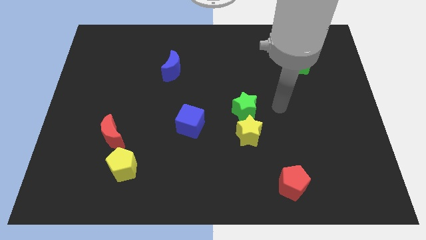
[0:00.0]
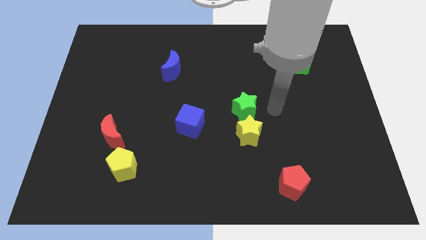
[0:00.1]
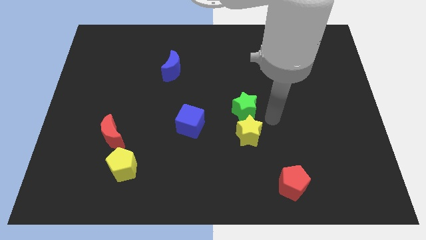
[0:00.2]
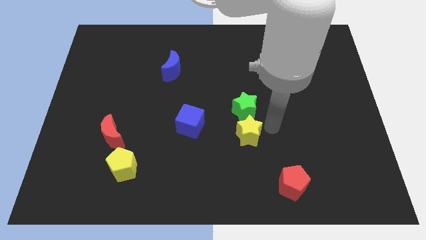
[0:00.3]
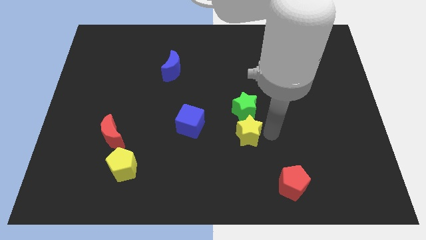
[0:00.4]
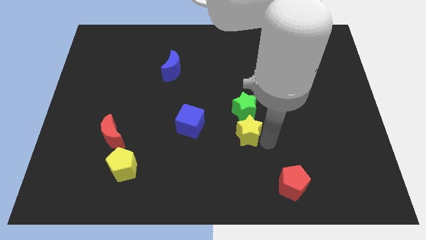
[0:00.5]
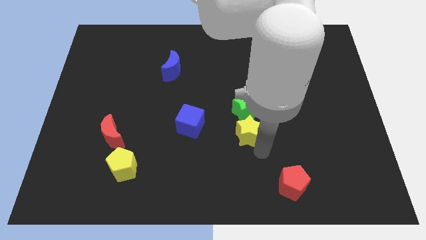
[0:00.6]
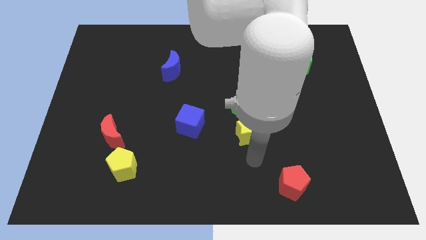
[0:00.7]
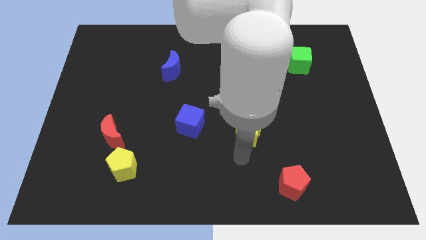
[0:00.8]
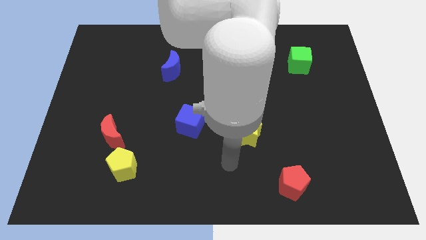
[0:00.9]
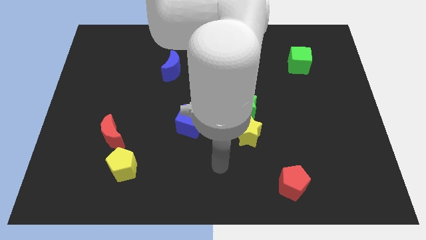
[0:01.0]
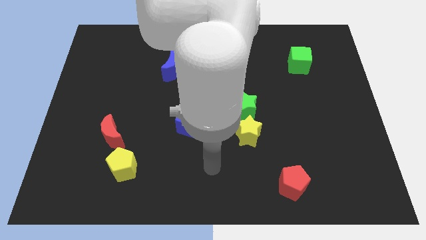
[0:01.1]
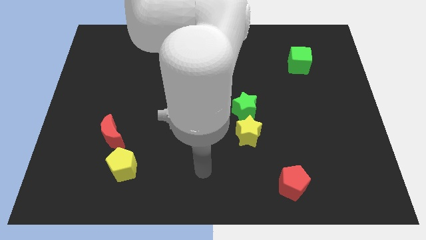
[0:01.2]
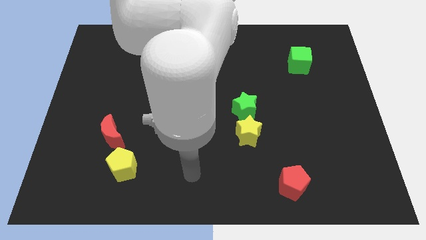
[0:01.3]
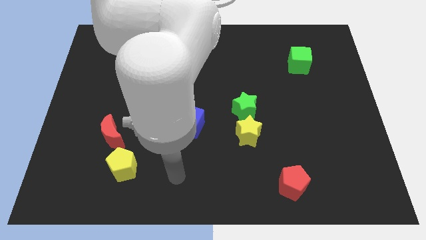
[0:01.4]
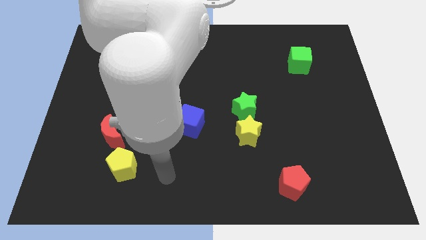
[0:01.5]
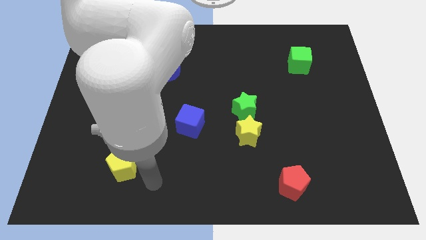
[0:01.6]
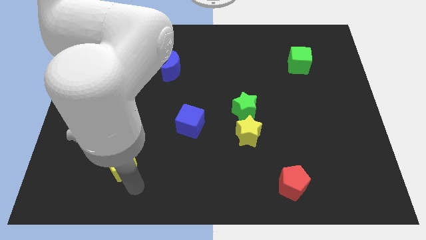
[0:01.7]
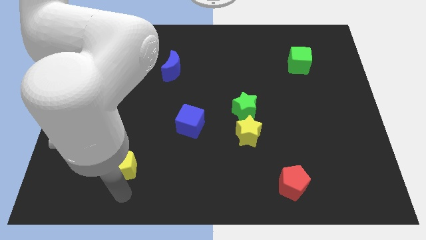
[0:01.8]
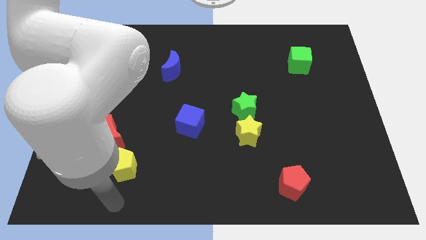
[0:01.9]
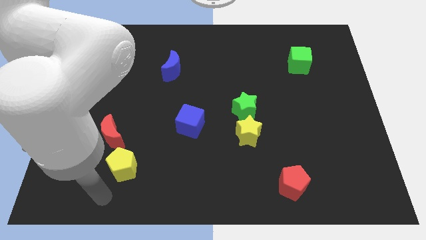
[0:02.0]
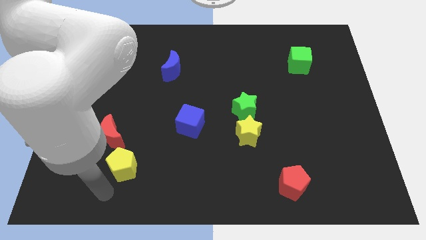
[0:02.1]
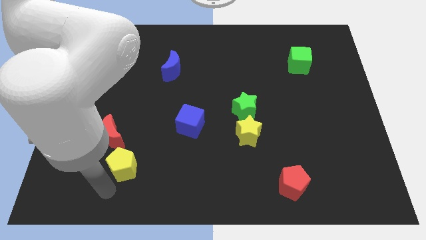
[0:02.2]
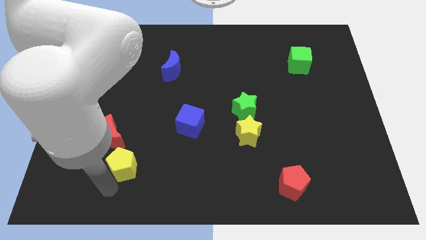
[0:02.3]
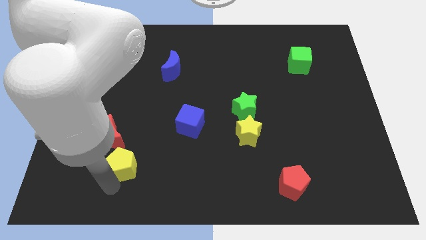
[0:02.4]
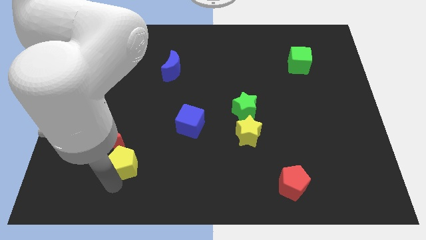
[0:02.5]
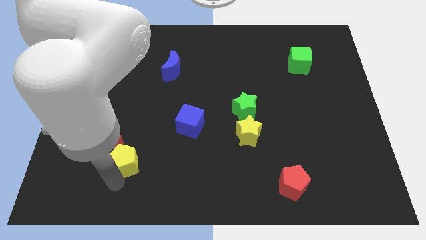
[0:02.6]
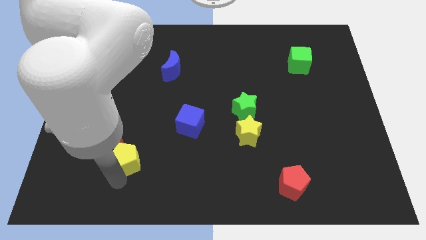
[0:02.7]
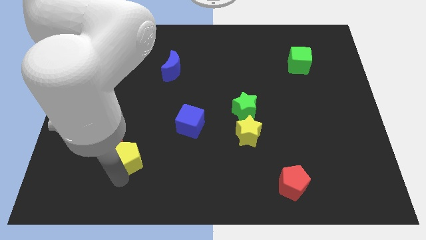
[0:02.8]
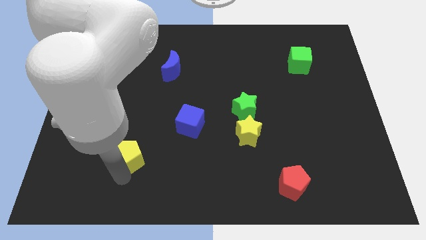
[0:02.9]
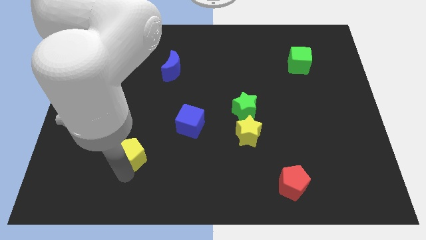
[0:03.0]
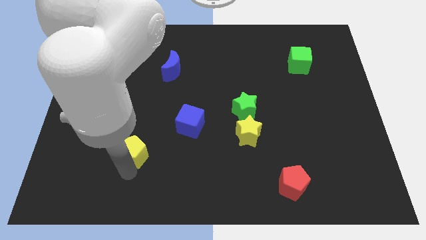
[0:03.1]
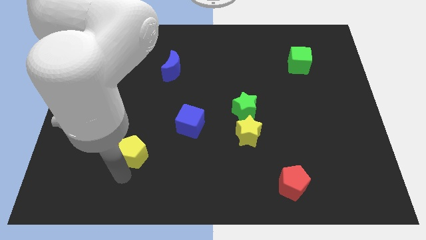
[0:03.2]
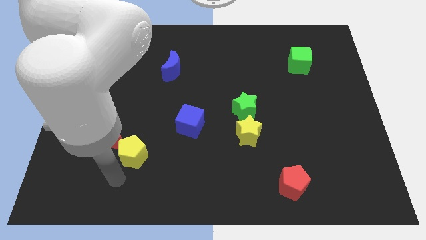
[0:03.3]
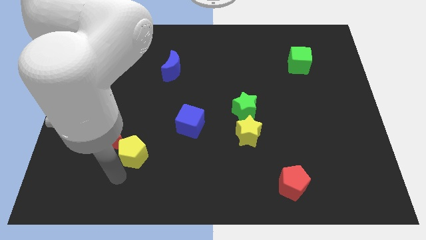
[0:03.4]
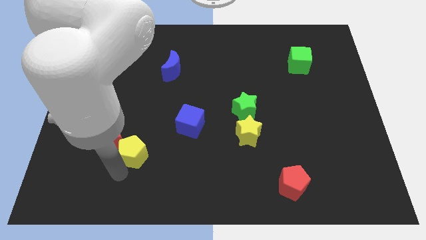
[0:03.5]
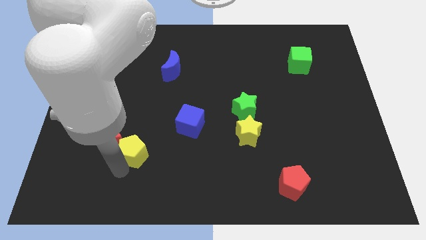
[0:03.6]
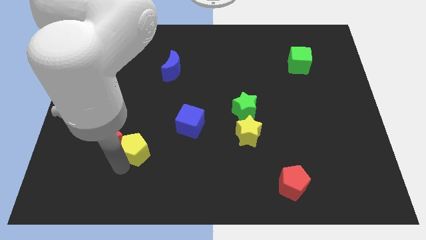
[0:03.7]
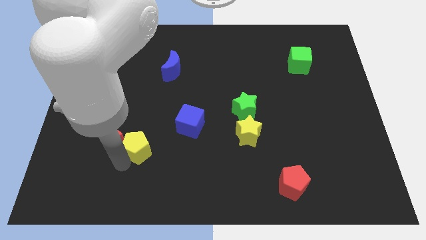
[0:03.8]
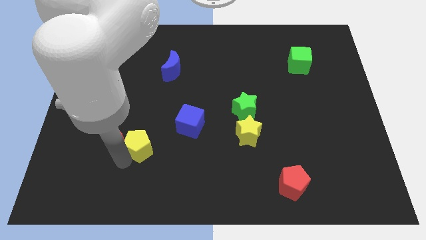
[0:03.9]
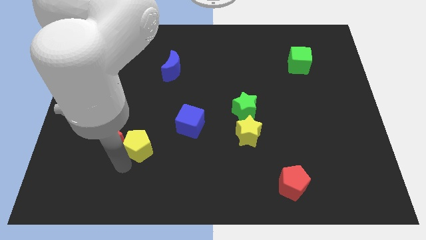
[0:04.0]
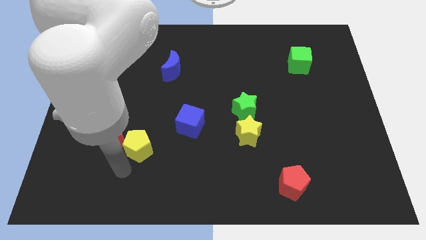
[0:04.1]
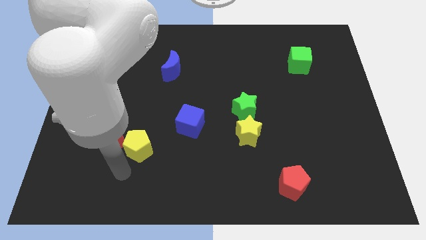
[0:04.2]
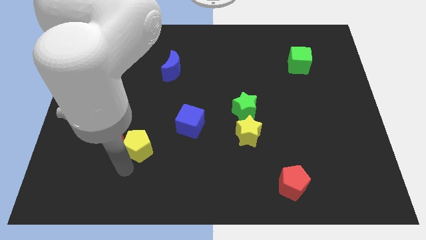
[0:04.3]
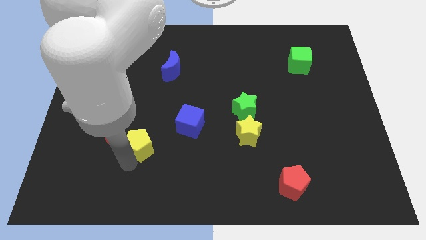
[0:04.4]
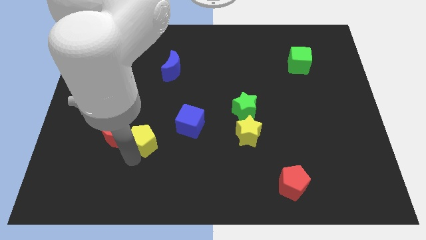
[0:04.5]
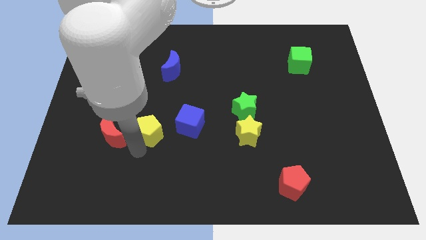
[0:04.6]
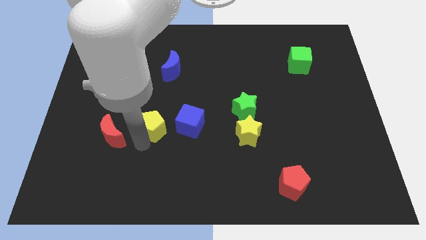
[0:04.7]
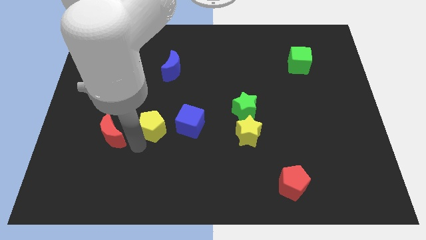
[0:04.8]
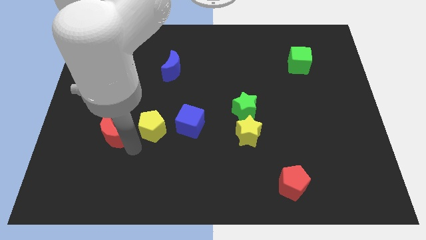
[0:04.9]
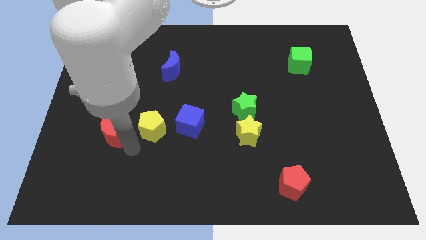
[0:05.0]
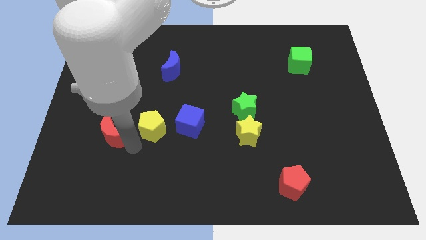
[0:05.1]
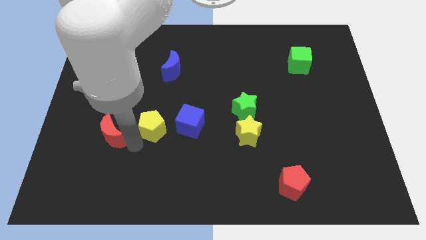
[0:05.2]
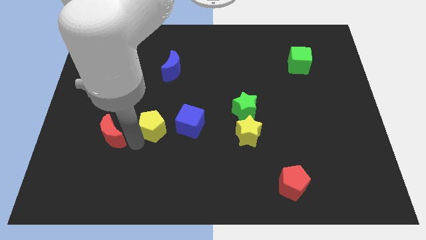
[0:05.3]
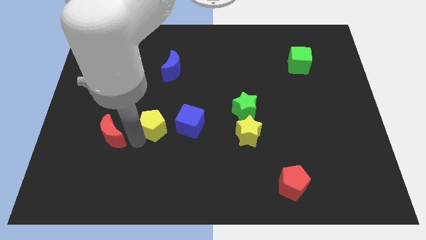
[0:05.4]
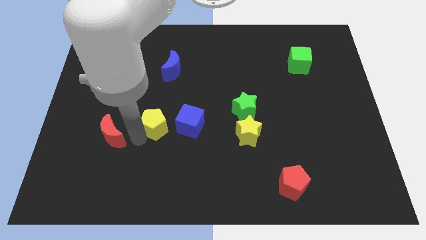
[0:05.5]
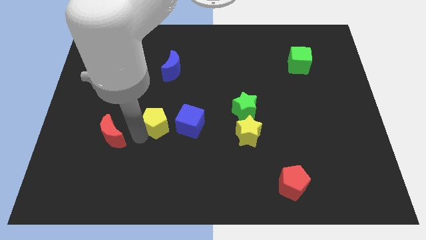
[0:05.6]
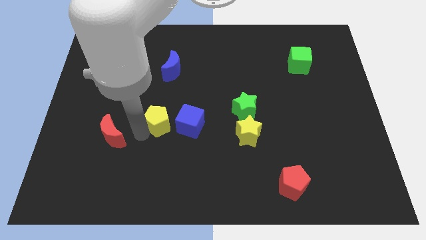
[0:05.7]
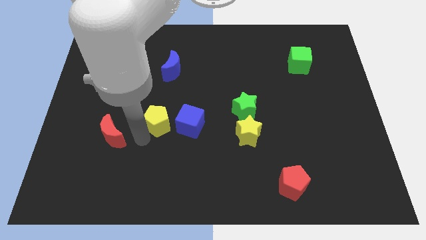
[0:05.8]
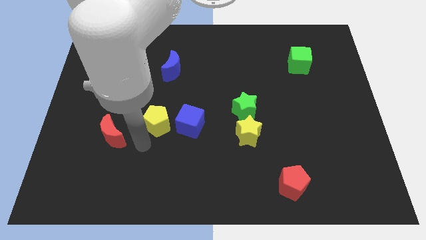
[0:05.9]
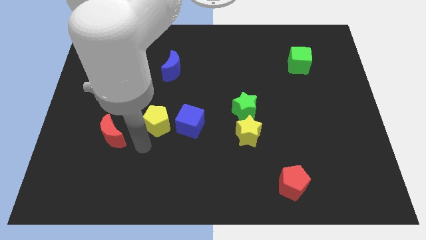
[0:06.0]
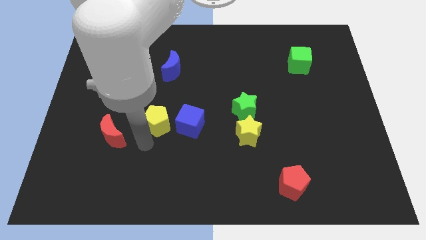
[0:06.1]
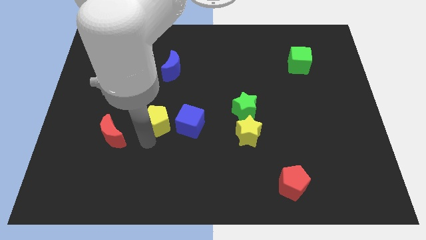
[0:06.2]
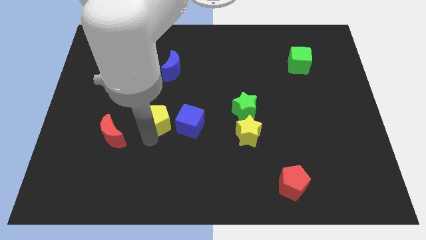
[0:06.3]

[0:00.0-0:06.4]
put the yellow pentagon diagonally up and to the left of the blue cube

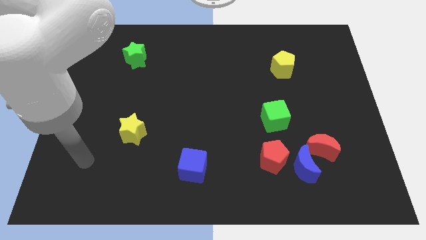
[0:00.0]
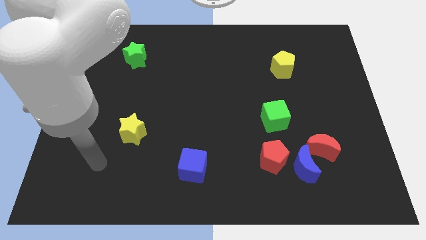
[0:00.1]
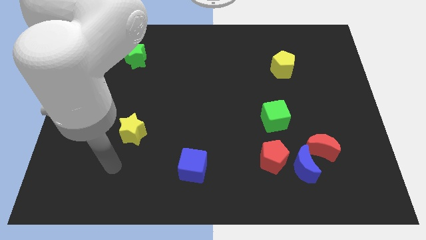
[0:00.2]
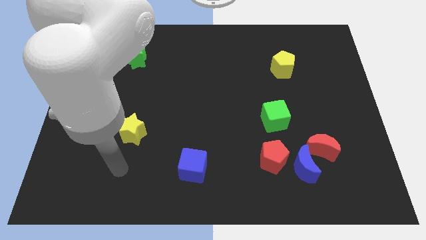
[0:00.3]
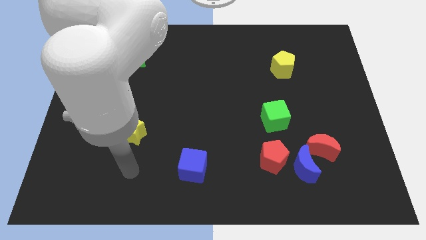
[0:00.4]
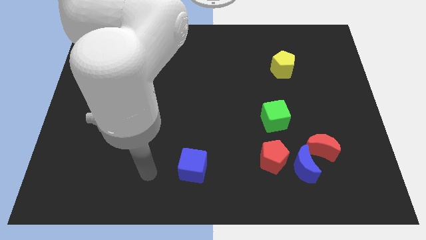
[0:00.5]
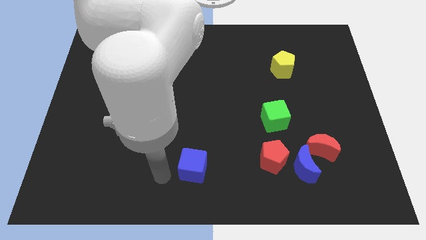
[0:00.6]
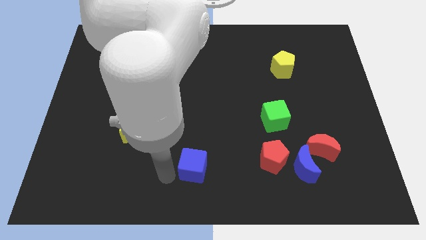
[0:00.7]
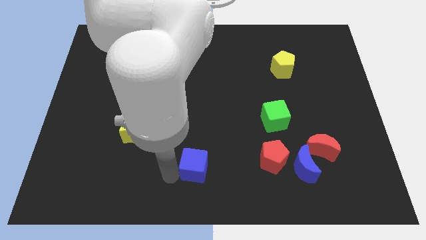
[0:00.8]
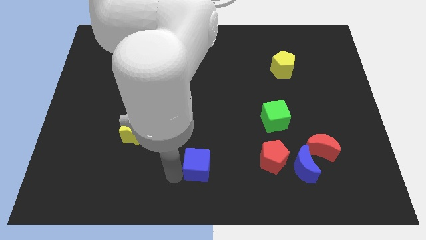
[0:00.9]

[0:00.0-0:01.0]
slide the blue cube to the left of the red pentagon

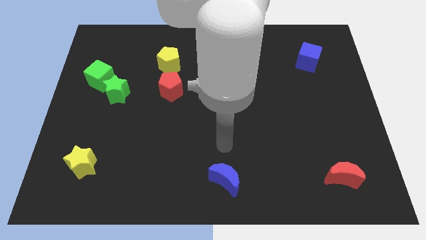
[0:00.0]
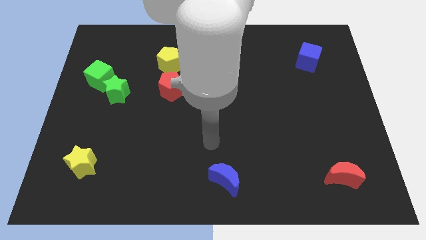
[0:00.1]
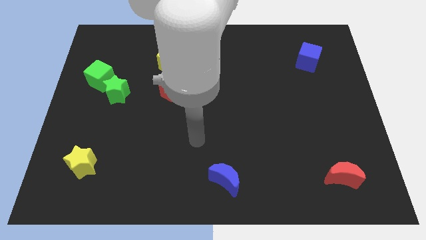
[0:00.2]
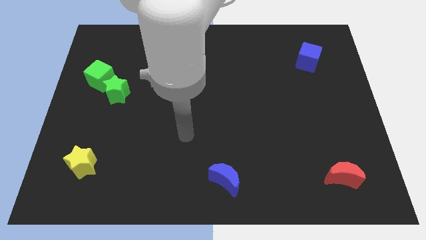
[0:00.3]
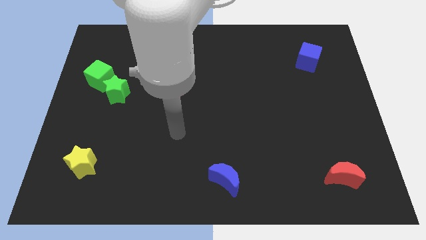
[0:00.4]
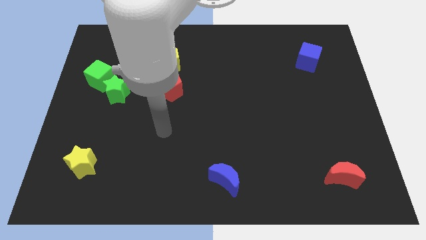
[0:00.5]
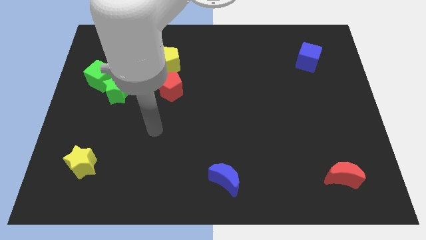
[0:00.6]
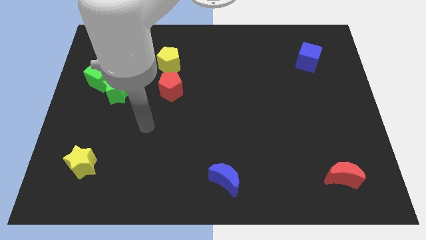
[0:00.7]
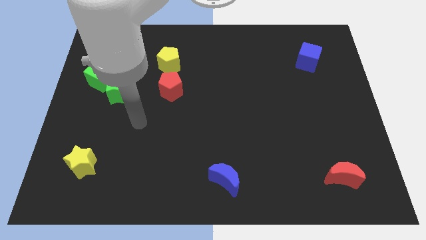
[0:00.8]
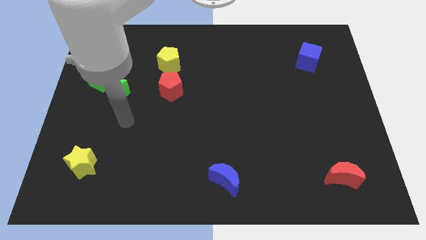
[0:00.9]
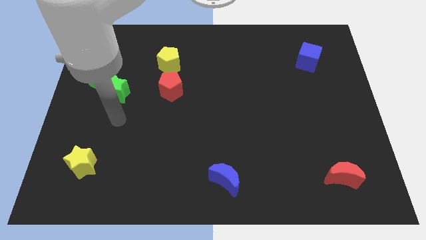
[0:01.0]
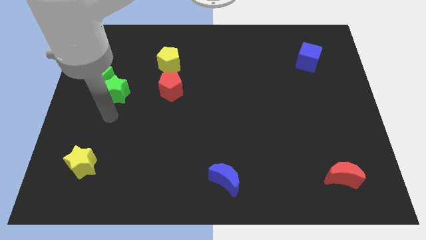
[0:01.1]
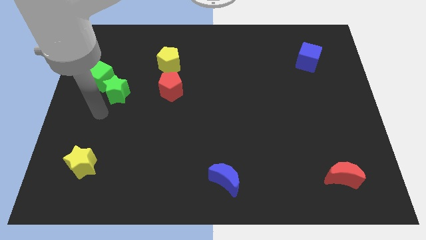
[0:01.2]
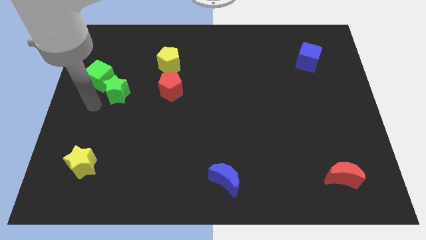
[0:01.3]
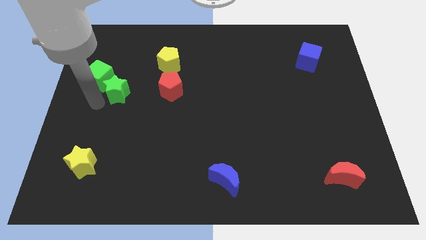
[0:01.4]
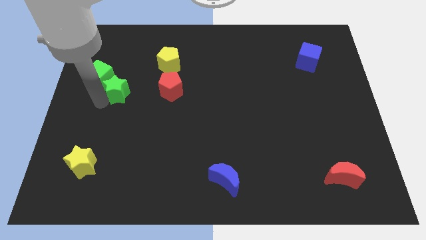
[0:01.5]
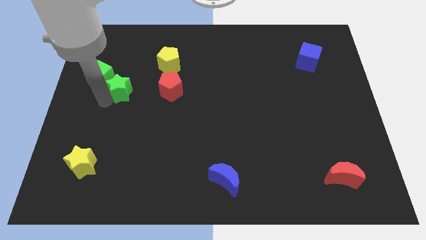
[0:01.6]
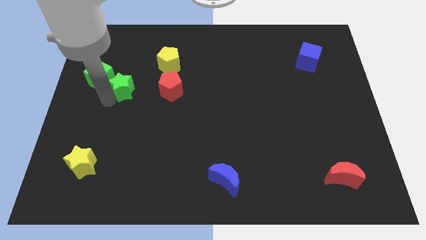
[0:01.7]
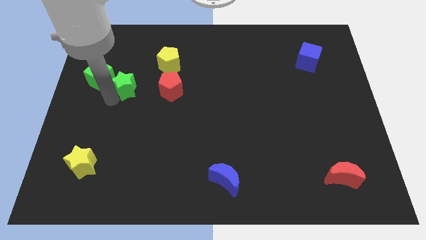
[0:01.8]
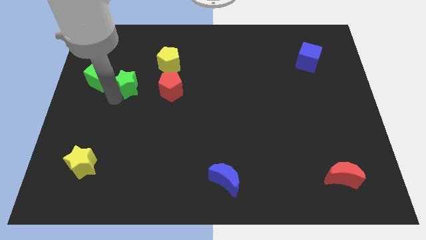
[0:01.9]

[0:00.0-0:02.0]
put the green star diagonally down and to the left of the yellow pentagon
